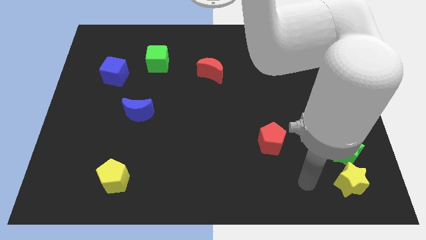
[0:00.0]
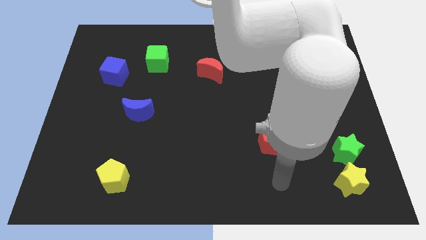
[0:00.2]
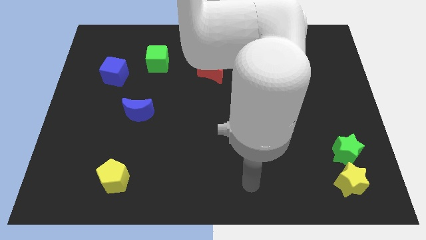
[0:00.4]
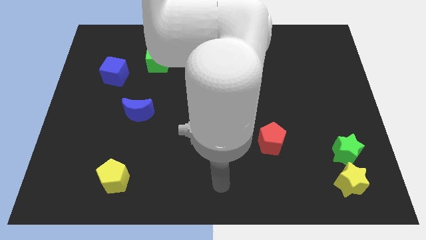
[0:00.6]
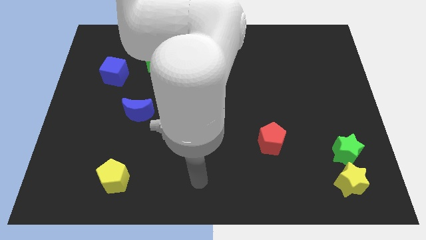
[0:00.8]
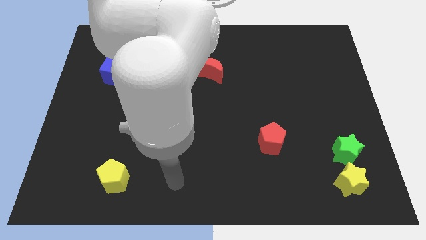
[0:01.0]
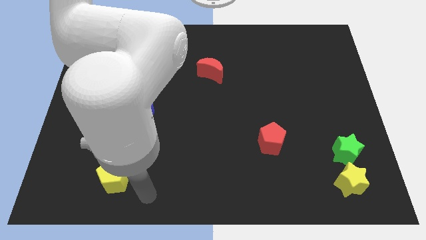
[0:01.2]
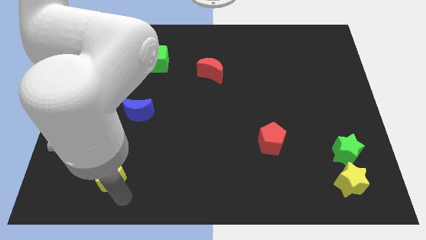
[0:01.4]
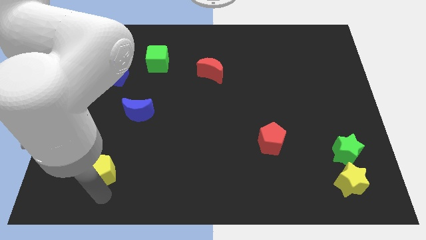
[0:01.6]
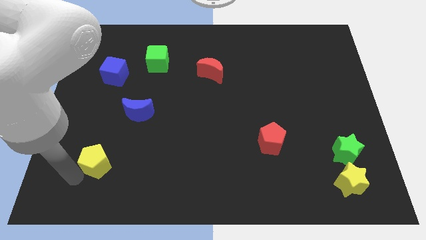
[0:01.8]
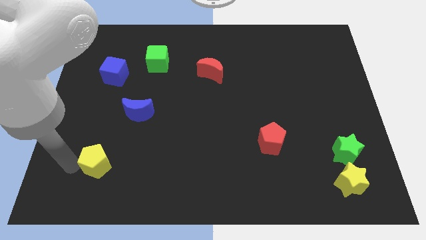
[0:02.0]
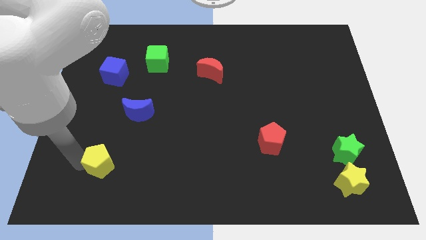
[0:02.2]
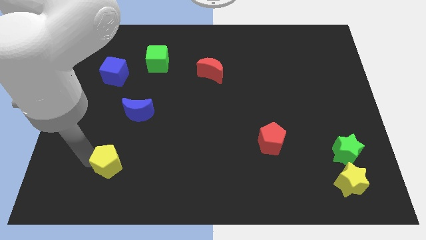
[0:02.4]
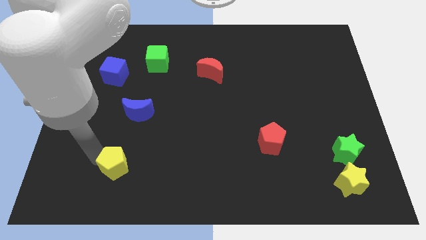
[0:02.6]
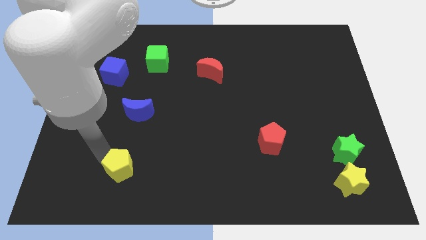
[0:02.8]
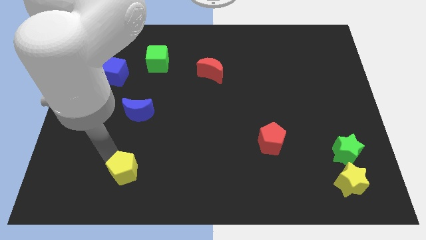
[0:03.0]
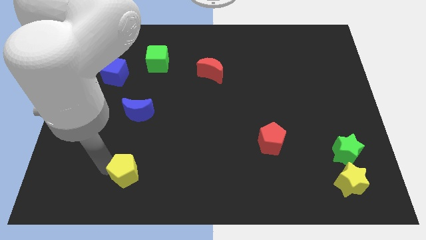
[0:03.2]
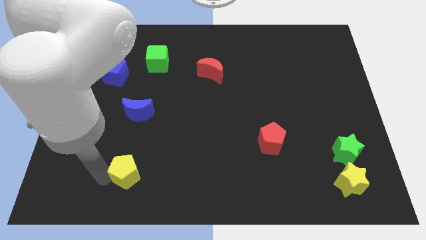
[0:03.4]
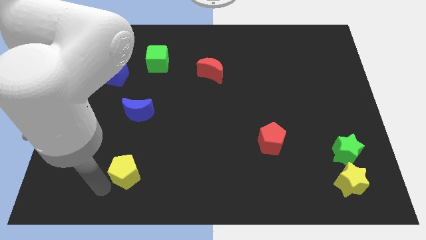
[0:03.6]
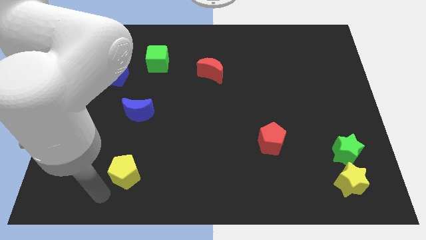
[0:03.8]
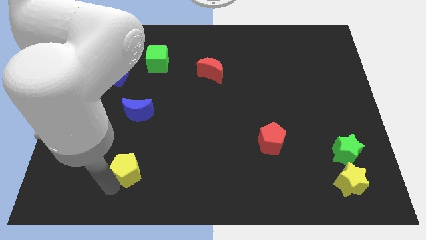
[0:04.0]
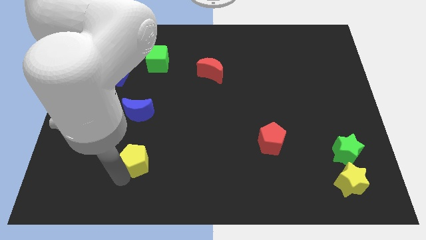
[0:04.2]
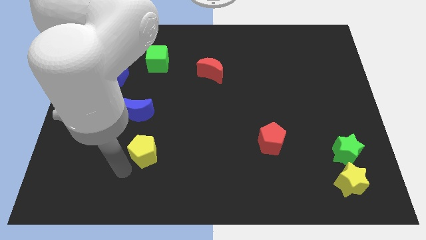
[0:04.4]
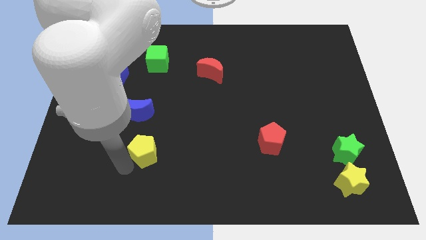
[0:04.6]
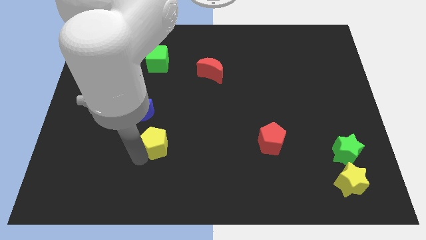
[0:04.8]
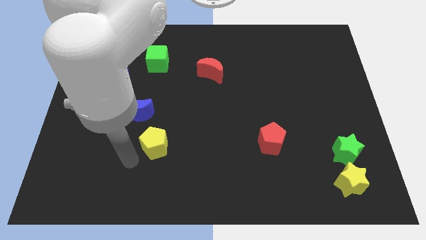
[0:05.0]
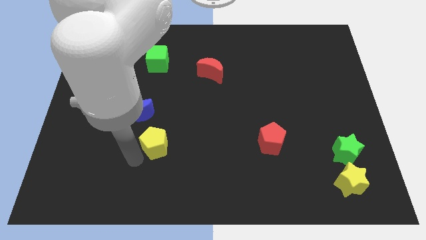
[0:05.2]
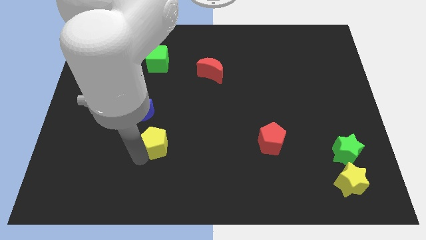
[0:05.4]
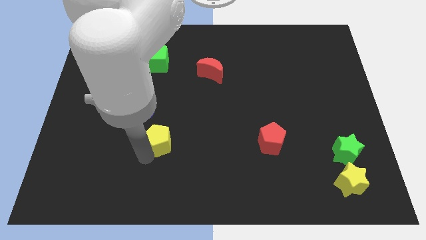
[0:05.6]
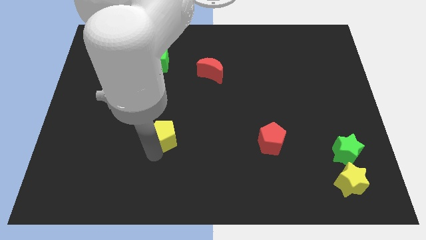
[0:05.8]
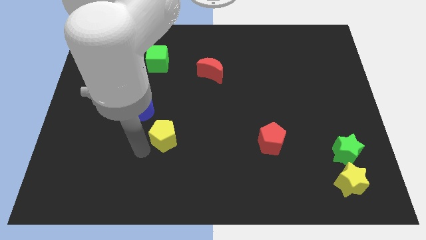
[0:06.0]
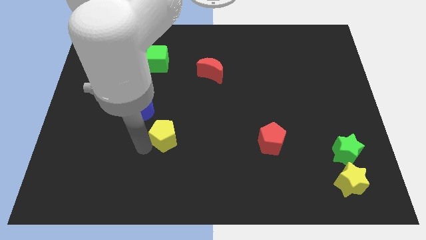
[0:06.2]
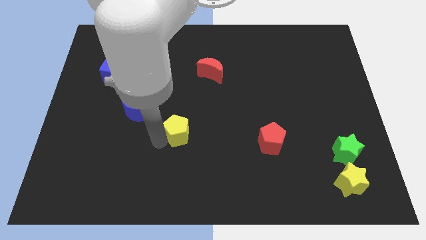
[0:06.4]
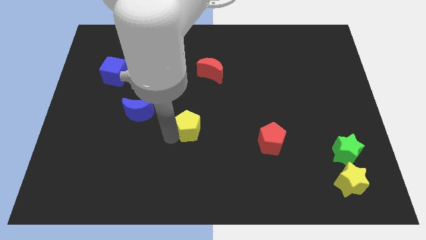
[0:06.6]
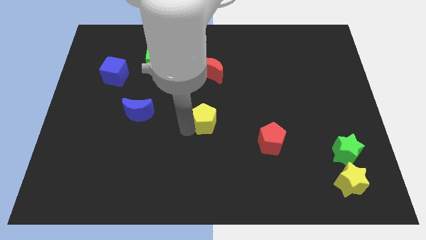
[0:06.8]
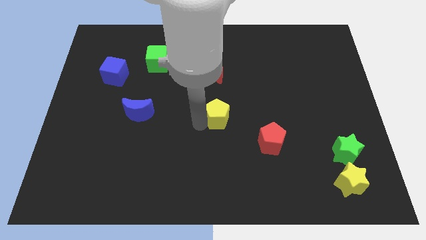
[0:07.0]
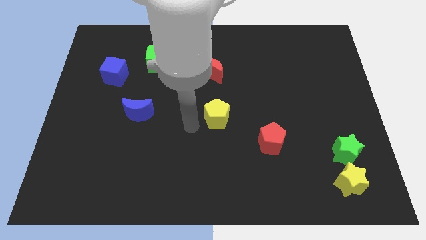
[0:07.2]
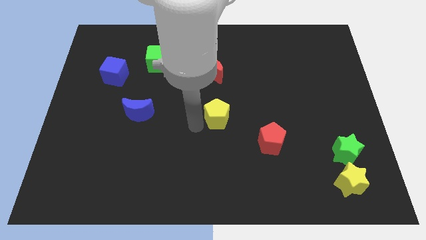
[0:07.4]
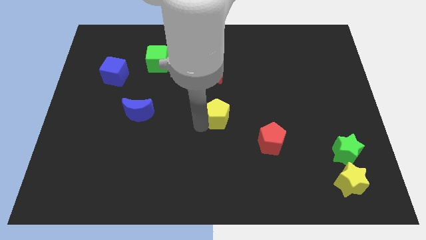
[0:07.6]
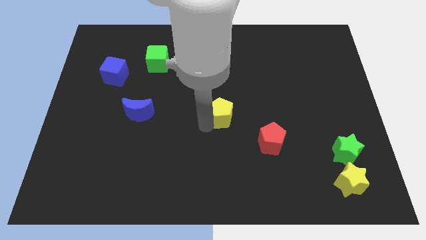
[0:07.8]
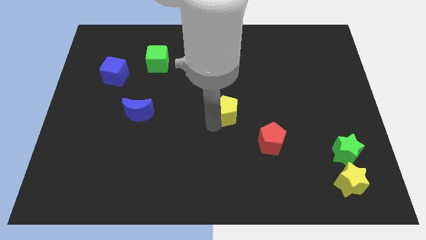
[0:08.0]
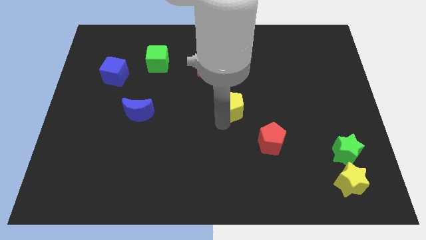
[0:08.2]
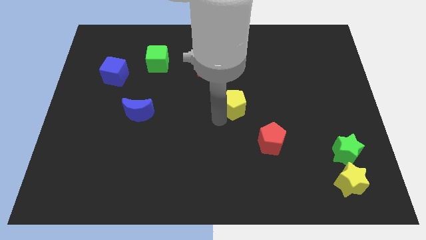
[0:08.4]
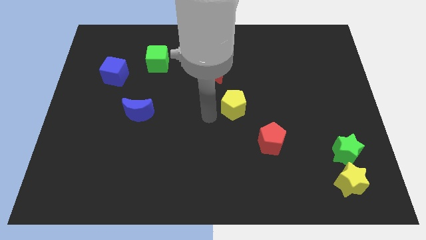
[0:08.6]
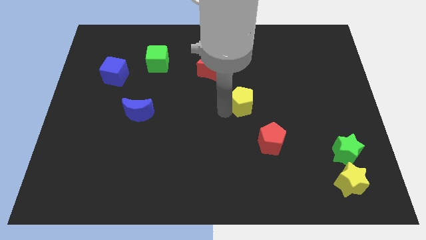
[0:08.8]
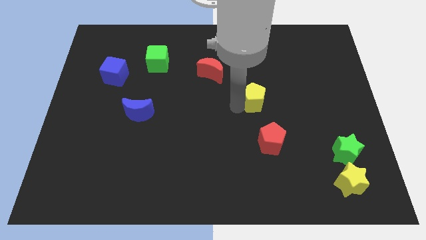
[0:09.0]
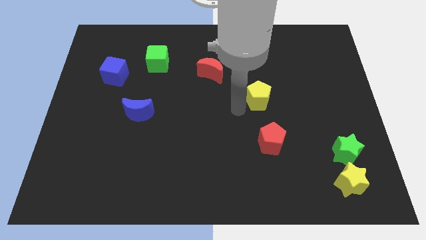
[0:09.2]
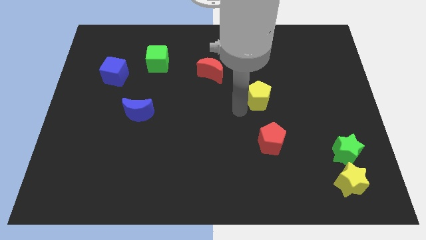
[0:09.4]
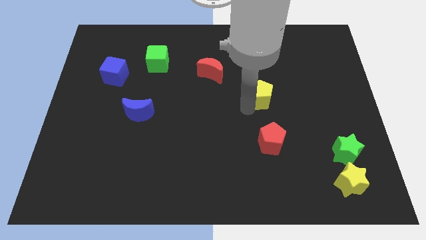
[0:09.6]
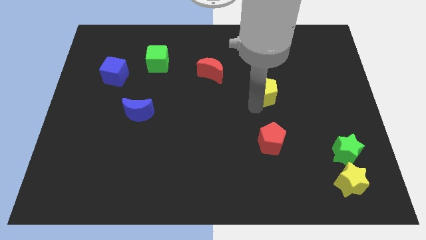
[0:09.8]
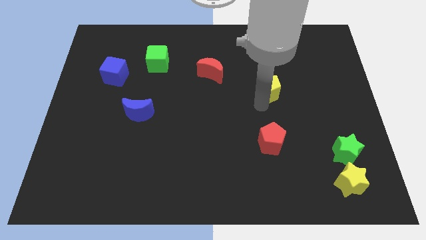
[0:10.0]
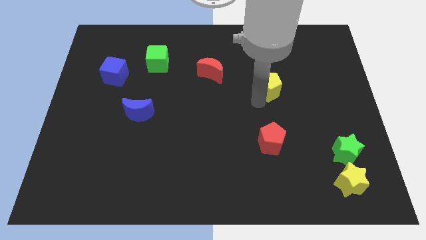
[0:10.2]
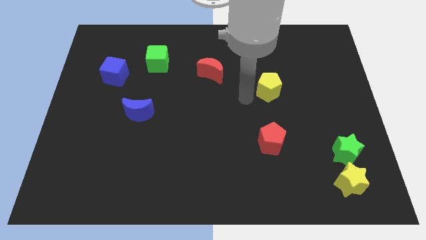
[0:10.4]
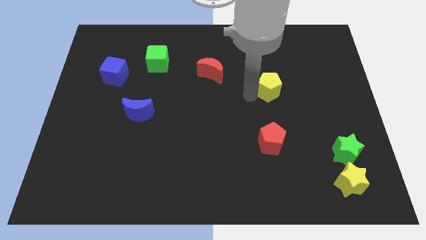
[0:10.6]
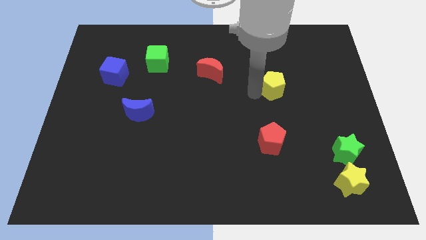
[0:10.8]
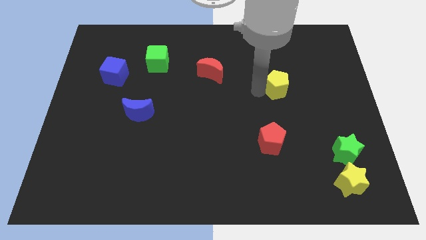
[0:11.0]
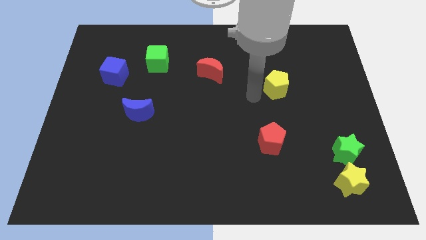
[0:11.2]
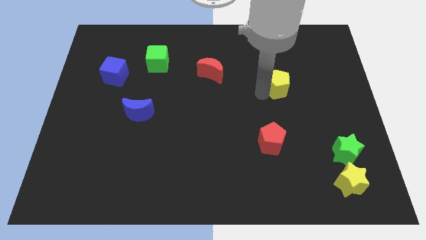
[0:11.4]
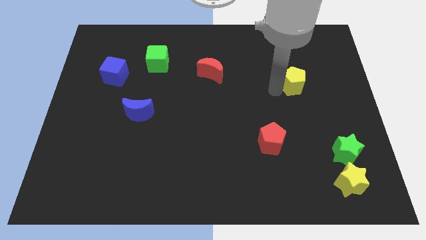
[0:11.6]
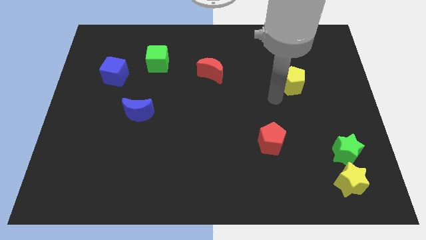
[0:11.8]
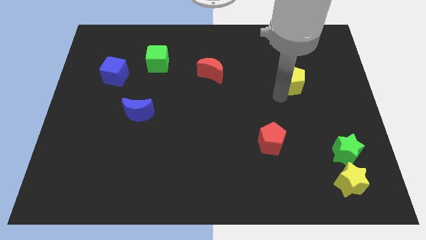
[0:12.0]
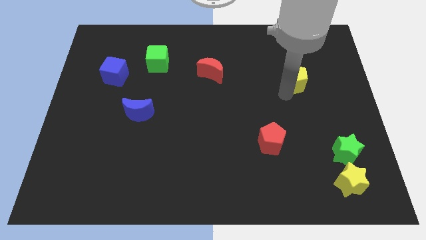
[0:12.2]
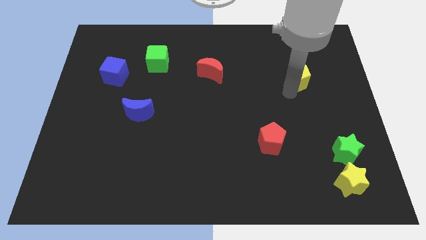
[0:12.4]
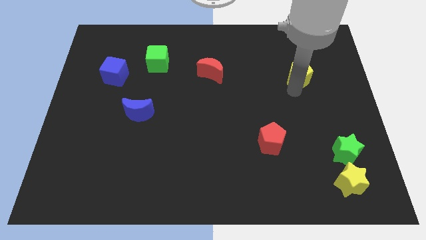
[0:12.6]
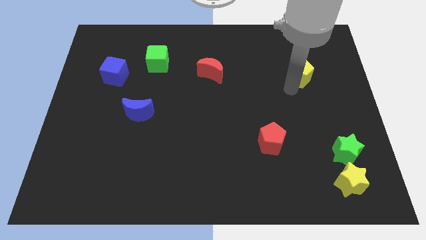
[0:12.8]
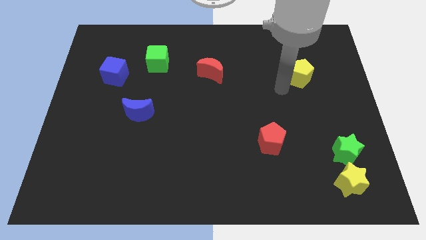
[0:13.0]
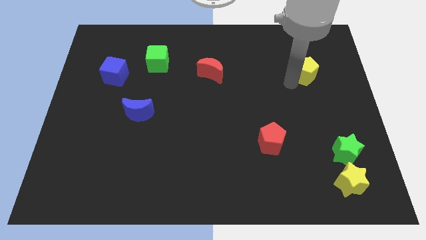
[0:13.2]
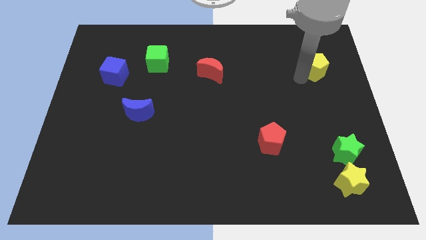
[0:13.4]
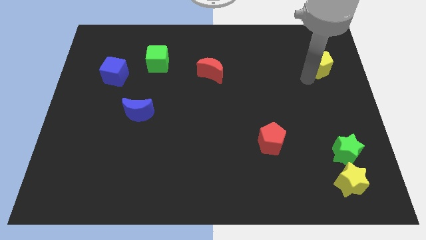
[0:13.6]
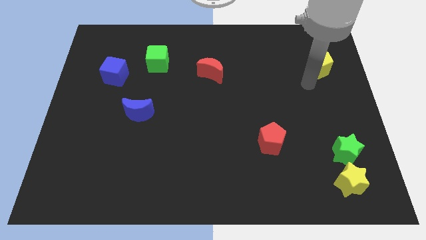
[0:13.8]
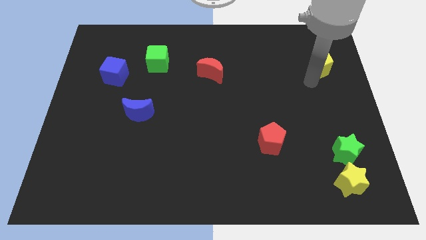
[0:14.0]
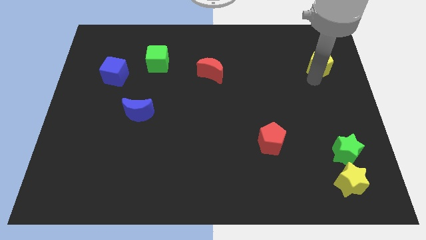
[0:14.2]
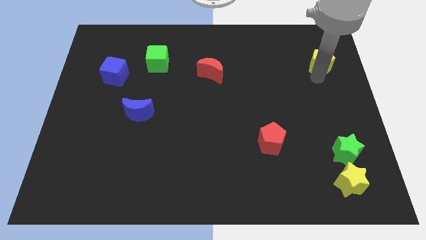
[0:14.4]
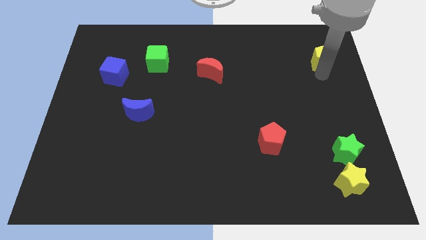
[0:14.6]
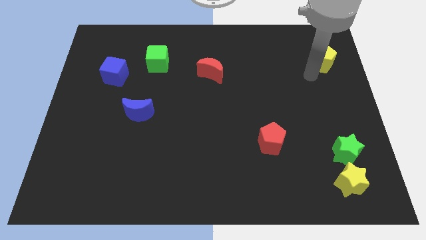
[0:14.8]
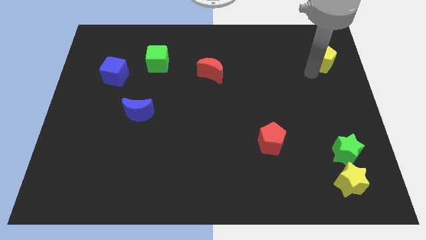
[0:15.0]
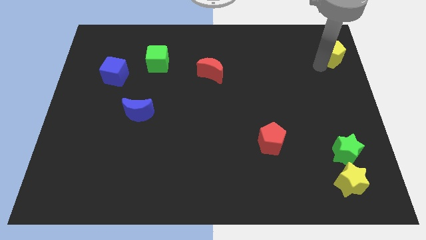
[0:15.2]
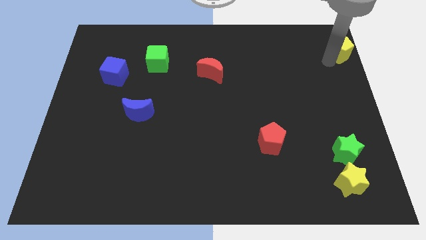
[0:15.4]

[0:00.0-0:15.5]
push the yellow pentagon to the top right corner
